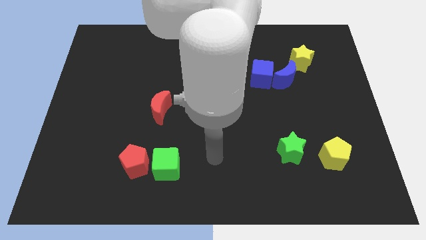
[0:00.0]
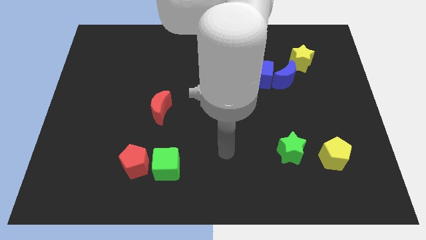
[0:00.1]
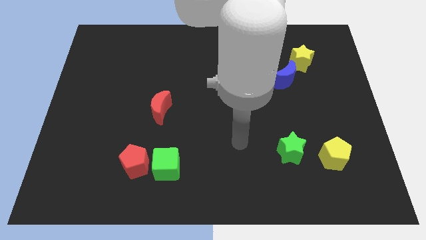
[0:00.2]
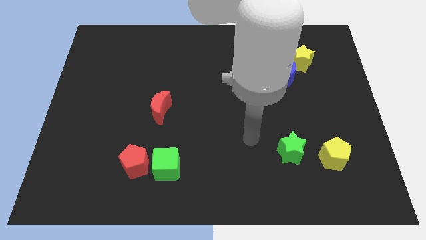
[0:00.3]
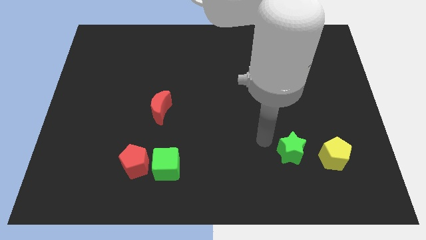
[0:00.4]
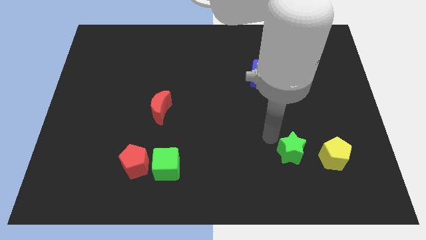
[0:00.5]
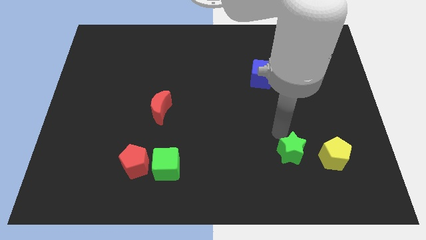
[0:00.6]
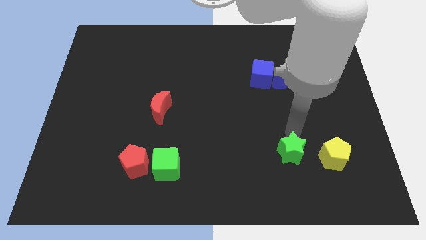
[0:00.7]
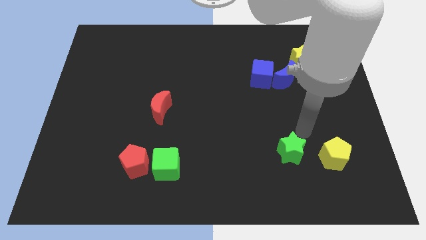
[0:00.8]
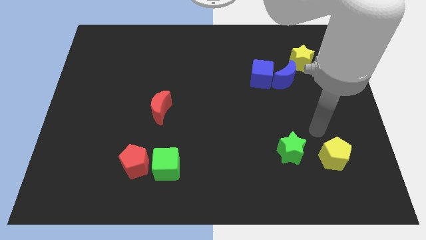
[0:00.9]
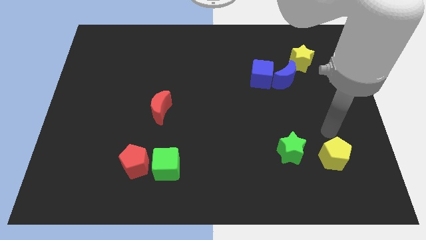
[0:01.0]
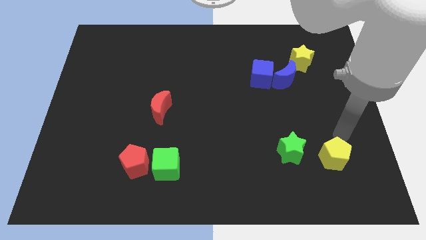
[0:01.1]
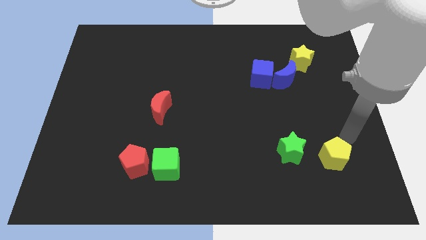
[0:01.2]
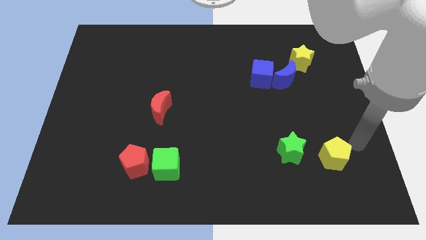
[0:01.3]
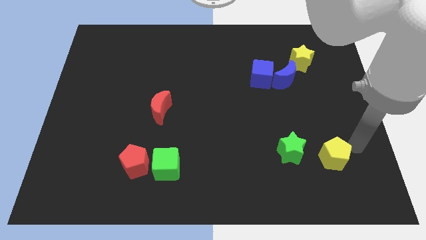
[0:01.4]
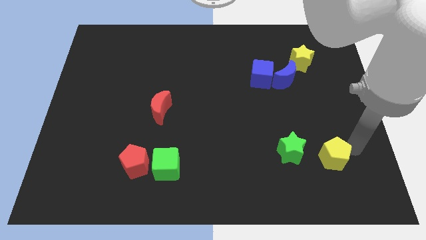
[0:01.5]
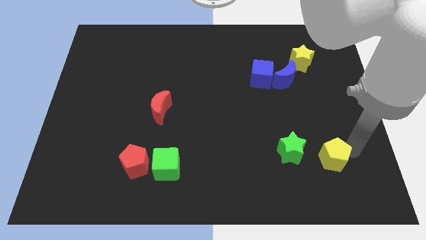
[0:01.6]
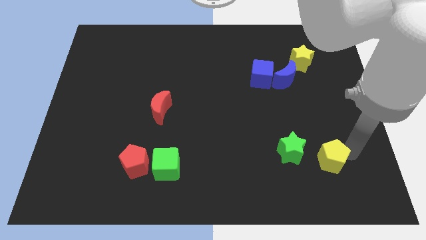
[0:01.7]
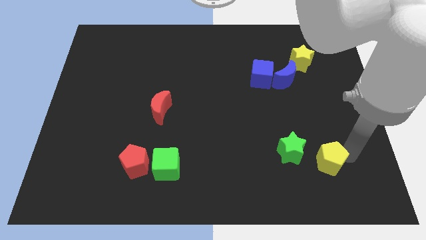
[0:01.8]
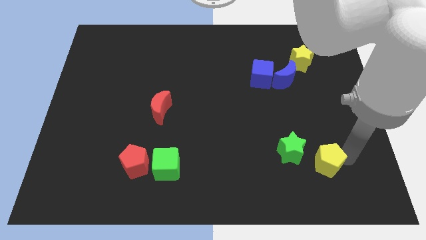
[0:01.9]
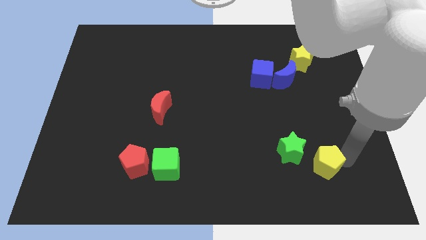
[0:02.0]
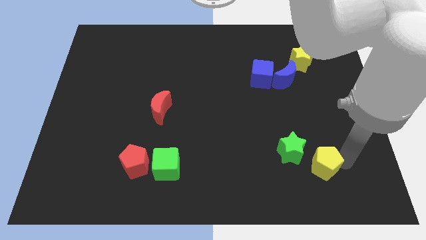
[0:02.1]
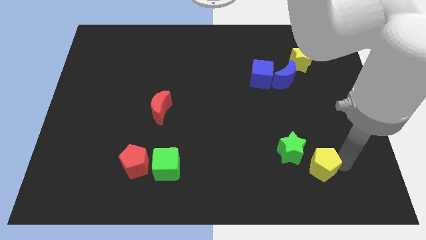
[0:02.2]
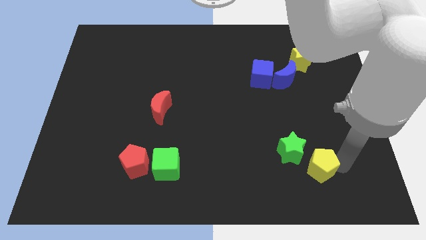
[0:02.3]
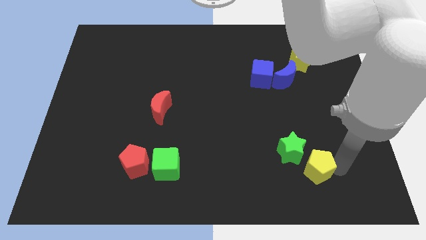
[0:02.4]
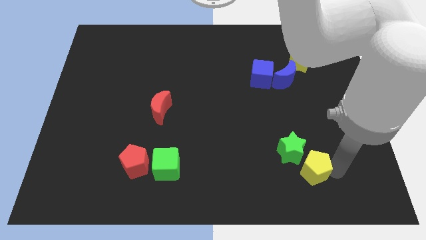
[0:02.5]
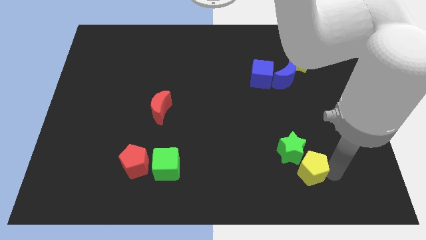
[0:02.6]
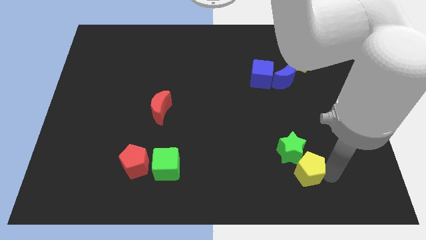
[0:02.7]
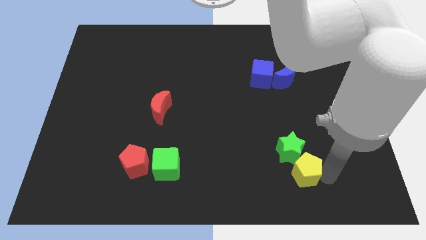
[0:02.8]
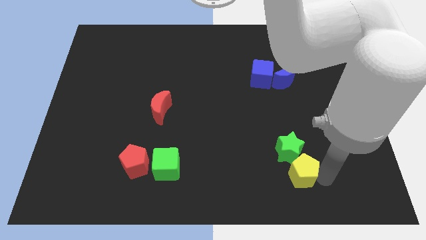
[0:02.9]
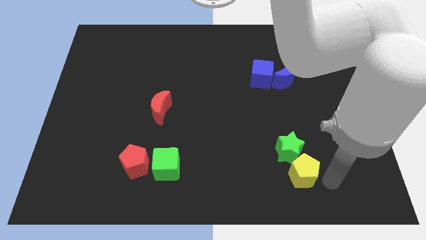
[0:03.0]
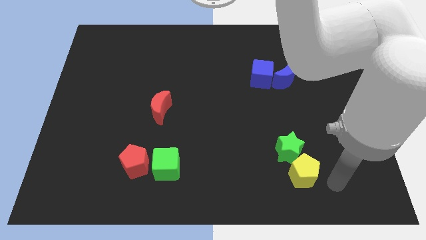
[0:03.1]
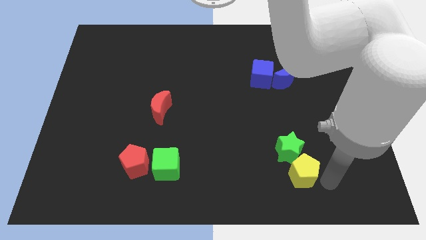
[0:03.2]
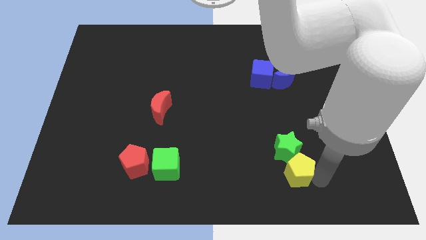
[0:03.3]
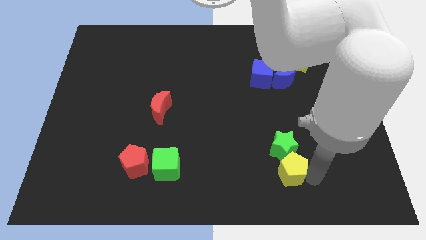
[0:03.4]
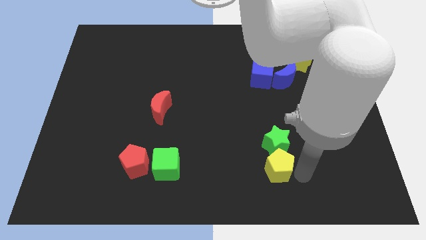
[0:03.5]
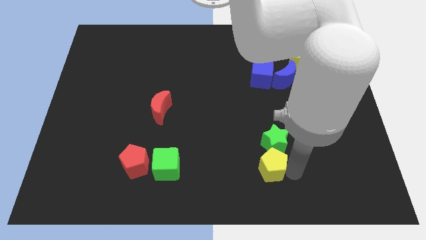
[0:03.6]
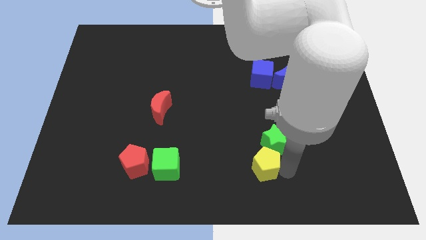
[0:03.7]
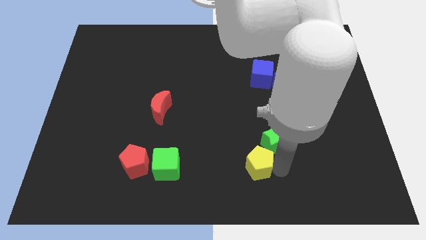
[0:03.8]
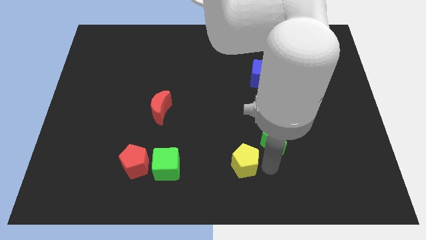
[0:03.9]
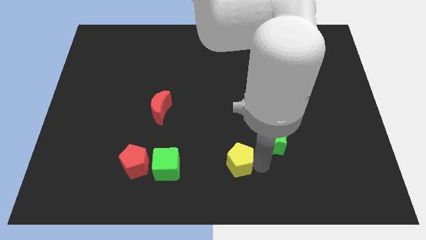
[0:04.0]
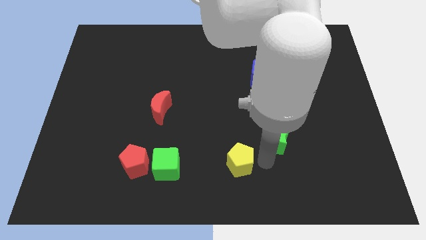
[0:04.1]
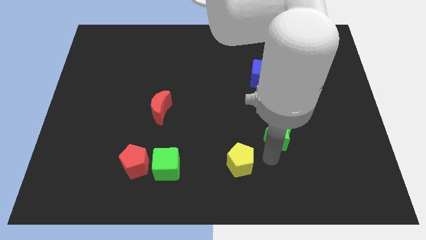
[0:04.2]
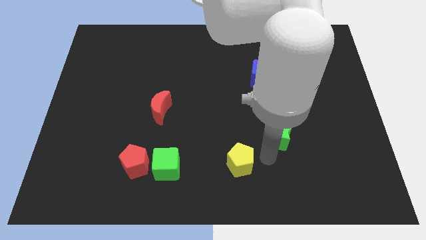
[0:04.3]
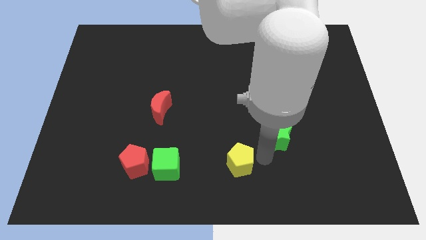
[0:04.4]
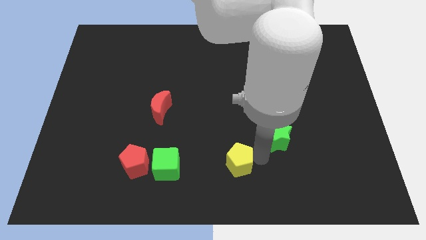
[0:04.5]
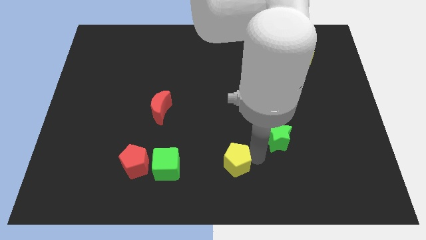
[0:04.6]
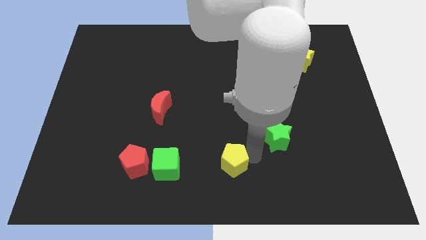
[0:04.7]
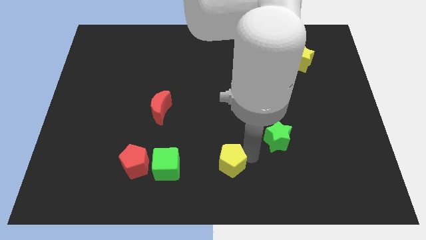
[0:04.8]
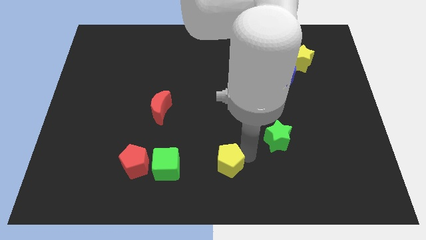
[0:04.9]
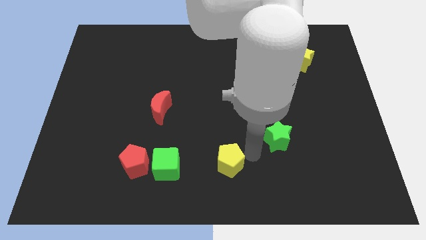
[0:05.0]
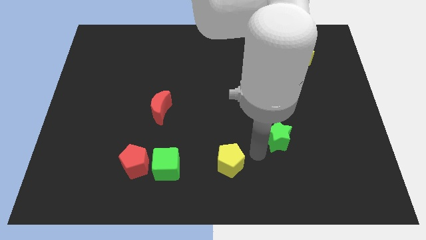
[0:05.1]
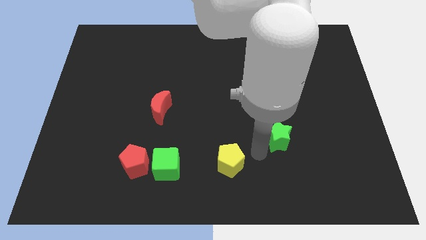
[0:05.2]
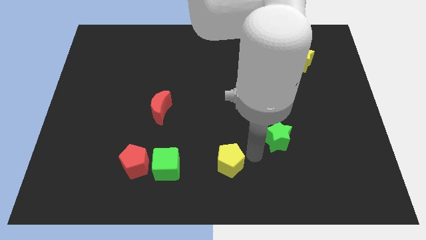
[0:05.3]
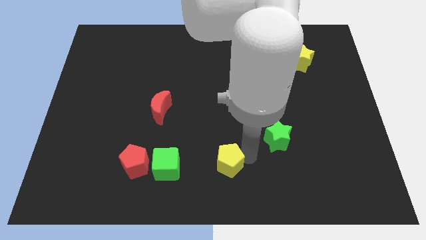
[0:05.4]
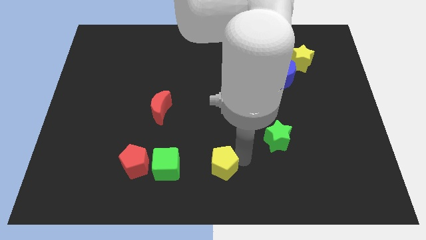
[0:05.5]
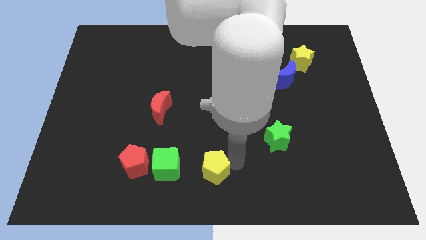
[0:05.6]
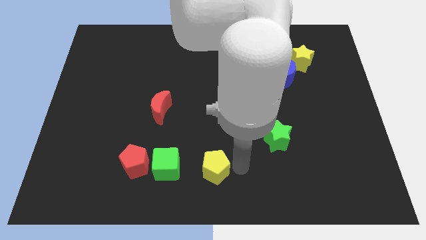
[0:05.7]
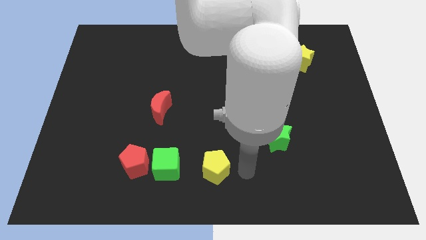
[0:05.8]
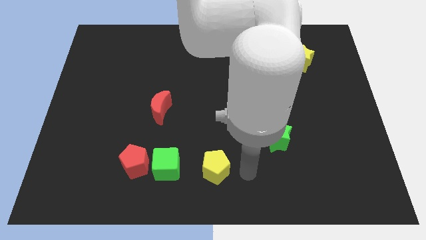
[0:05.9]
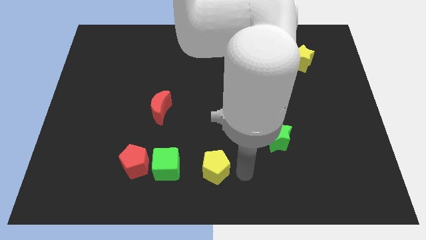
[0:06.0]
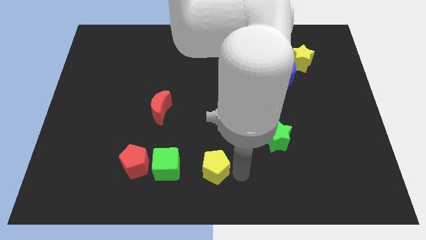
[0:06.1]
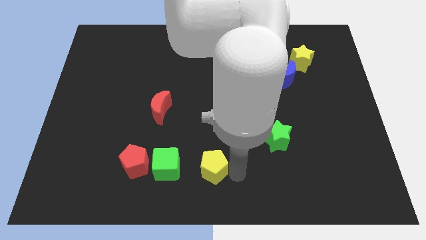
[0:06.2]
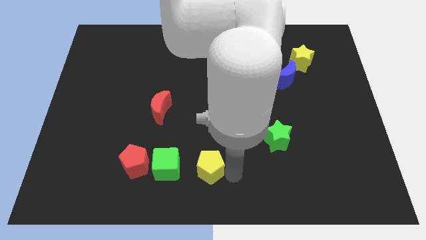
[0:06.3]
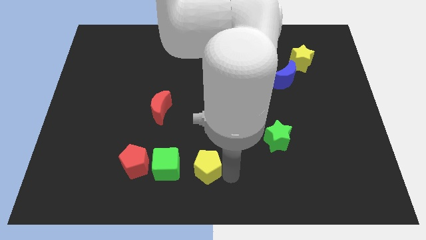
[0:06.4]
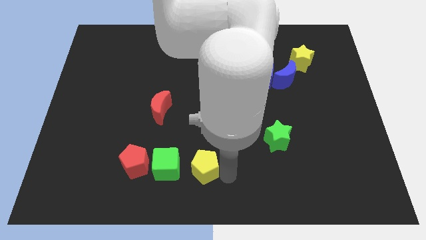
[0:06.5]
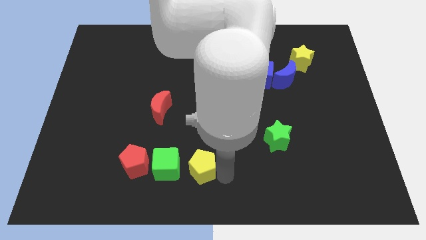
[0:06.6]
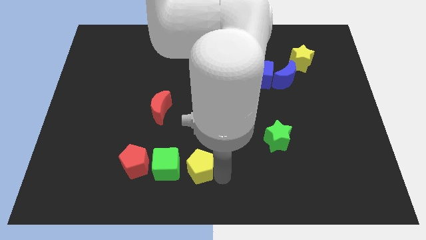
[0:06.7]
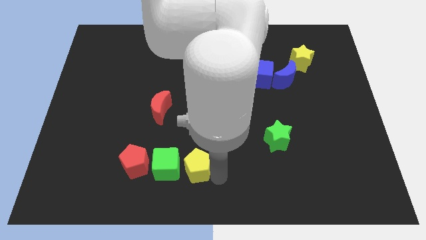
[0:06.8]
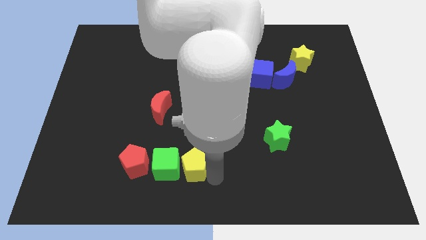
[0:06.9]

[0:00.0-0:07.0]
push the yellow pentagon next to the green cube

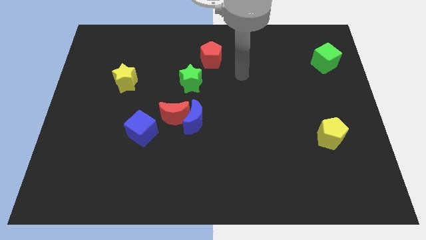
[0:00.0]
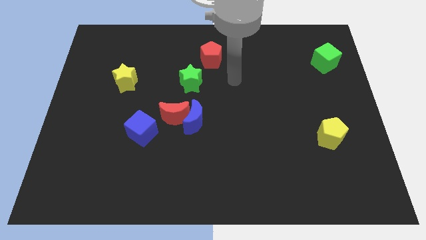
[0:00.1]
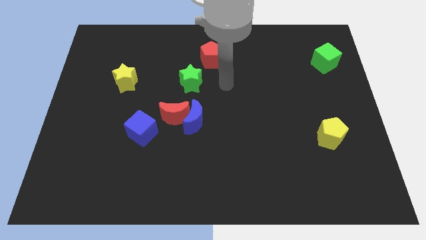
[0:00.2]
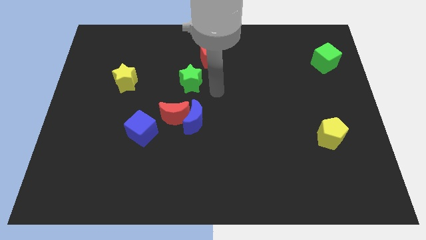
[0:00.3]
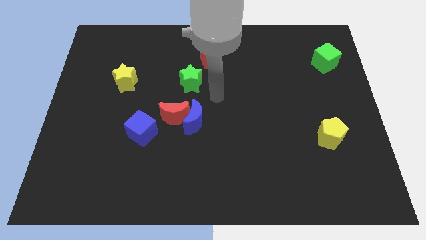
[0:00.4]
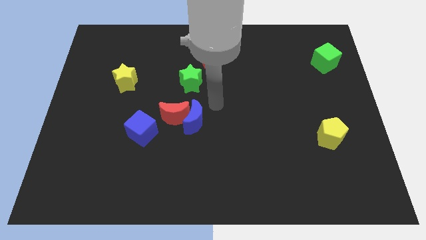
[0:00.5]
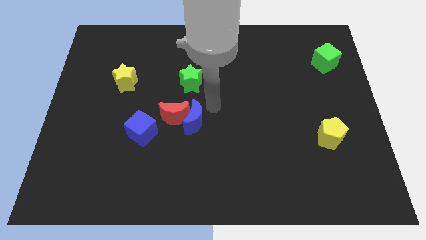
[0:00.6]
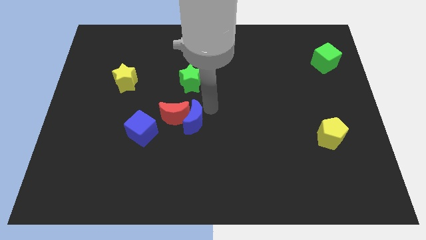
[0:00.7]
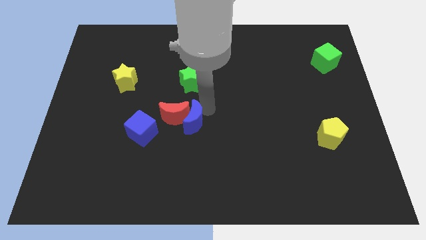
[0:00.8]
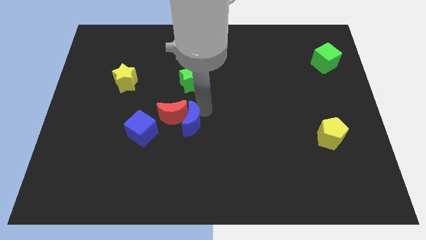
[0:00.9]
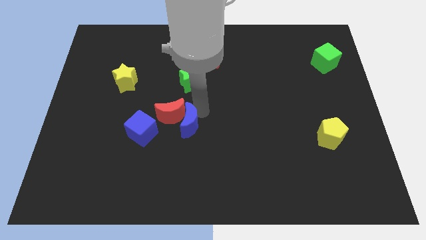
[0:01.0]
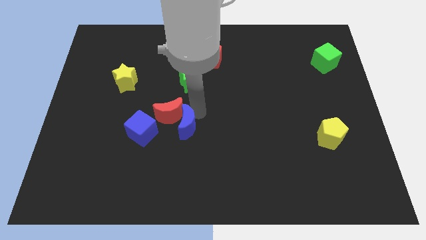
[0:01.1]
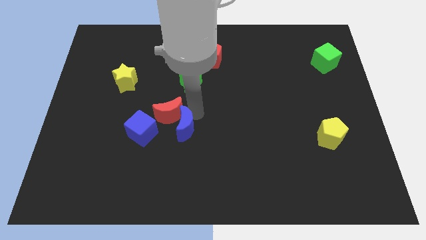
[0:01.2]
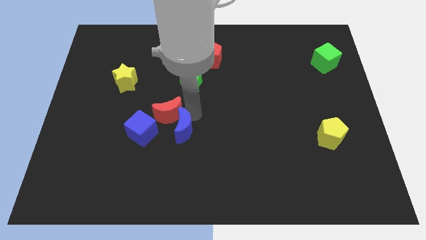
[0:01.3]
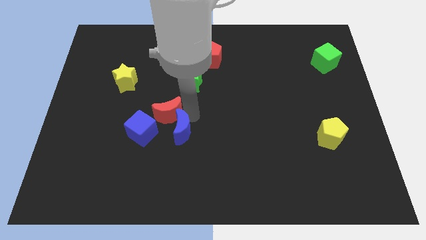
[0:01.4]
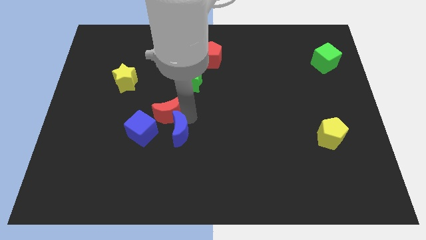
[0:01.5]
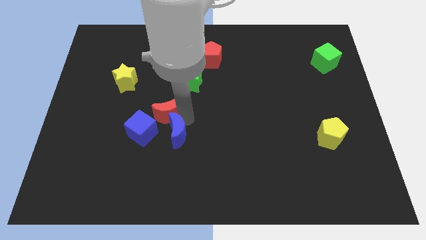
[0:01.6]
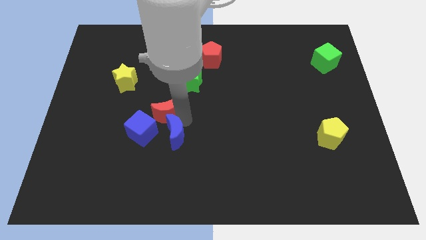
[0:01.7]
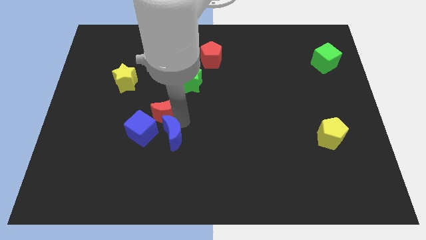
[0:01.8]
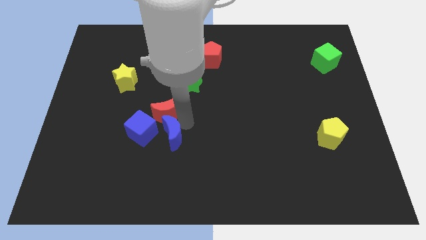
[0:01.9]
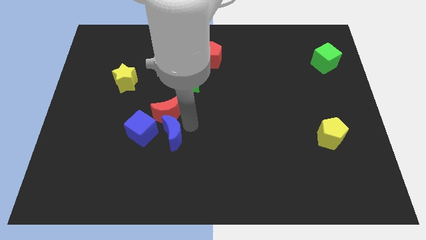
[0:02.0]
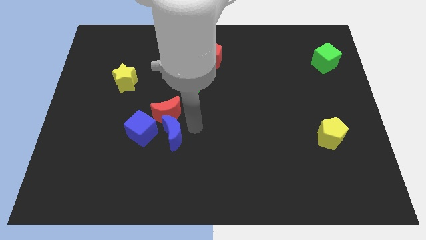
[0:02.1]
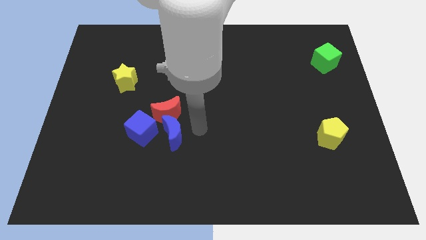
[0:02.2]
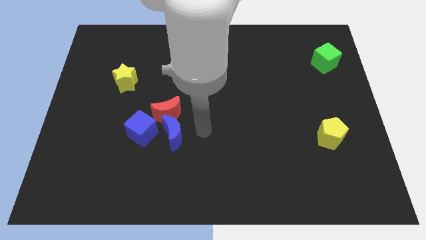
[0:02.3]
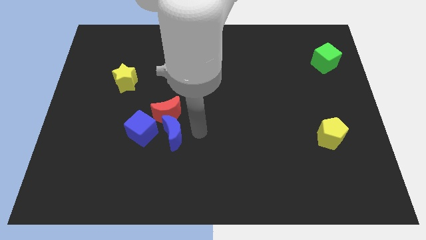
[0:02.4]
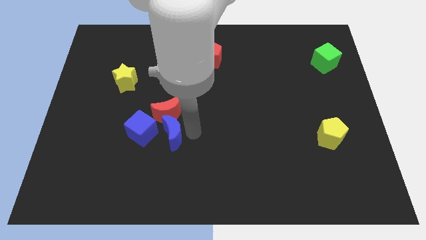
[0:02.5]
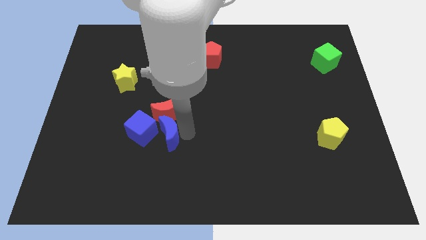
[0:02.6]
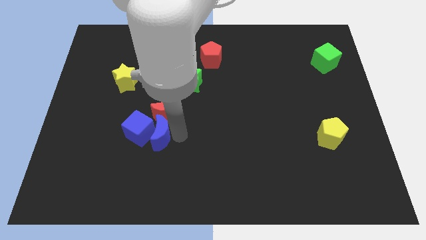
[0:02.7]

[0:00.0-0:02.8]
put the blue moon to the blue cube
